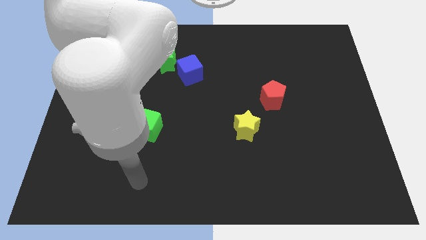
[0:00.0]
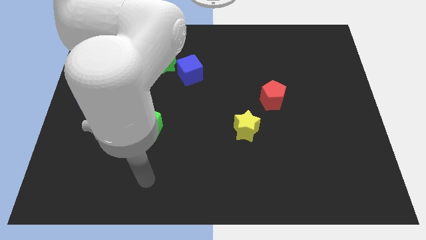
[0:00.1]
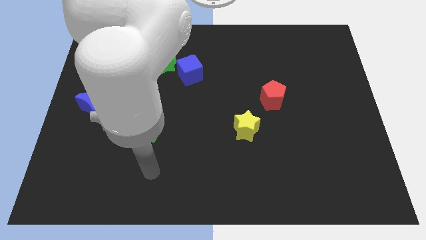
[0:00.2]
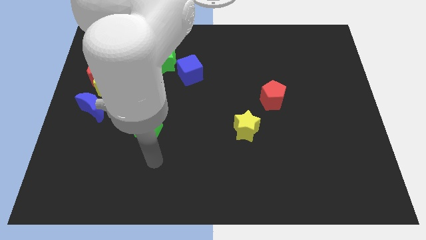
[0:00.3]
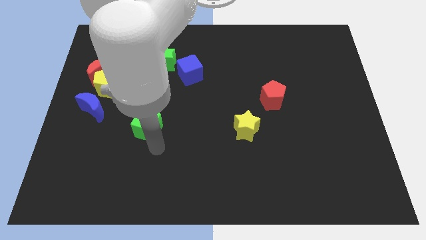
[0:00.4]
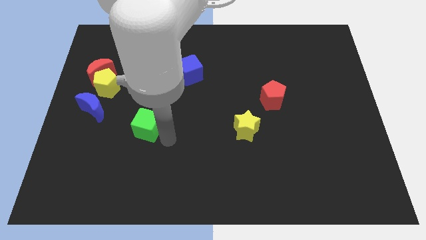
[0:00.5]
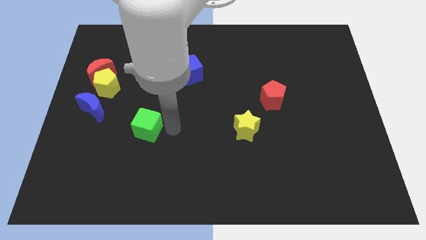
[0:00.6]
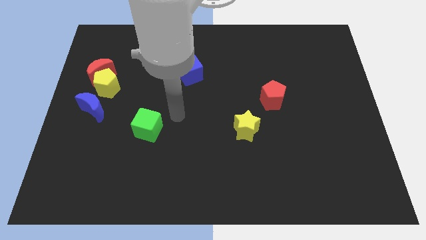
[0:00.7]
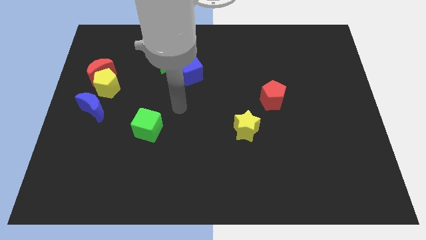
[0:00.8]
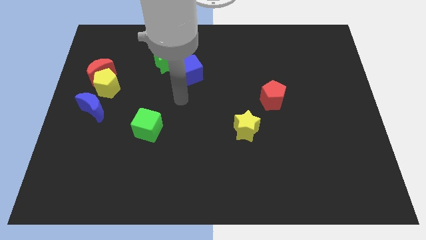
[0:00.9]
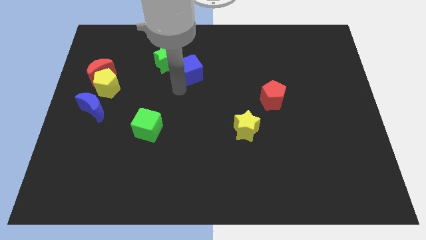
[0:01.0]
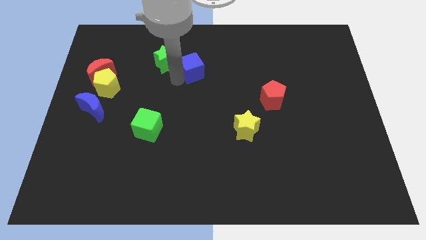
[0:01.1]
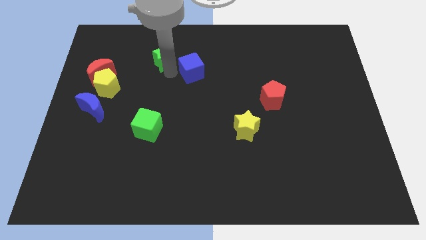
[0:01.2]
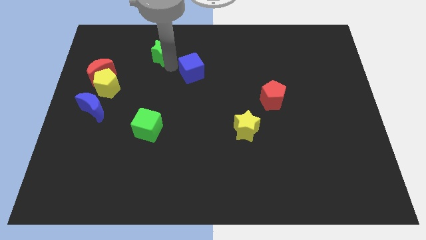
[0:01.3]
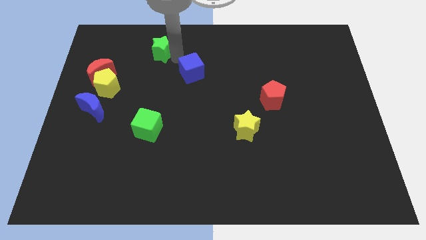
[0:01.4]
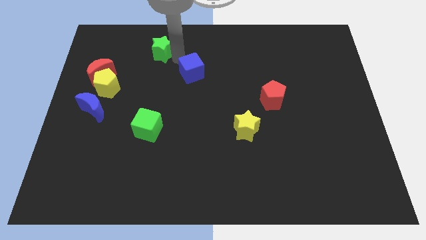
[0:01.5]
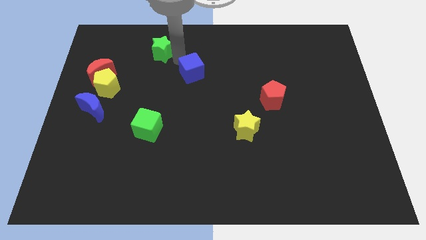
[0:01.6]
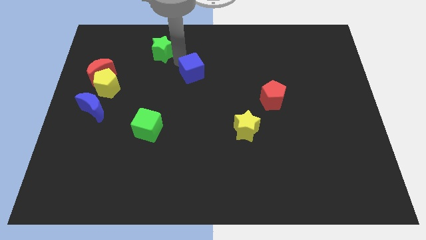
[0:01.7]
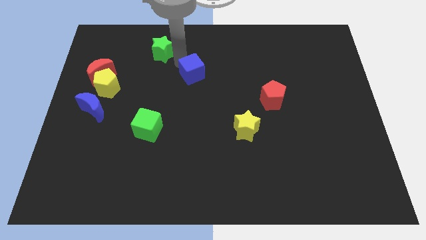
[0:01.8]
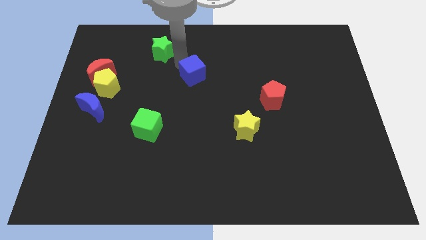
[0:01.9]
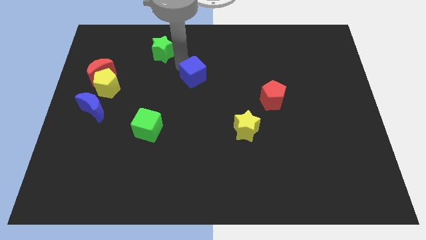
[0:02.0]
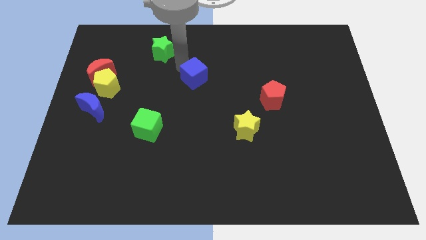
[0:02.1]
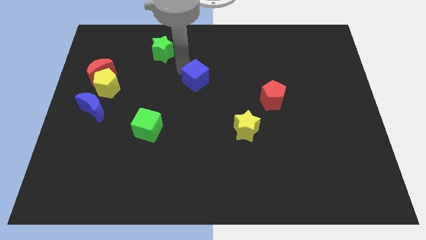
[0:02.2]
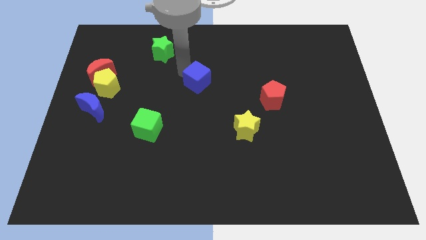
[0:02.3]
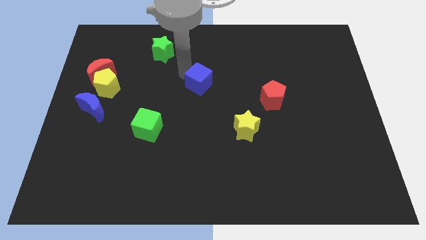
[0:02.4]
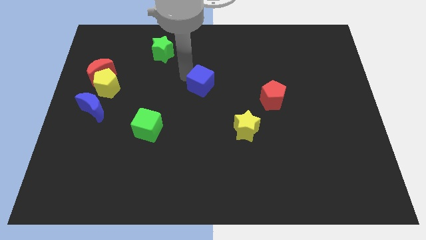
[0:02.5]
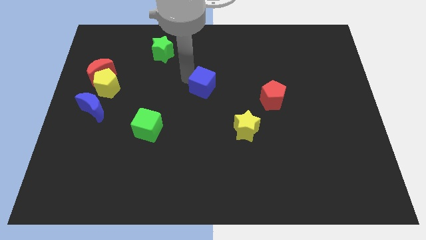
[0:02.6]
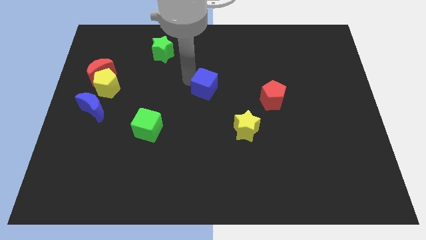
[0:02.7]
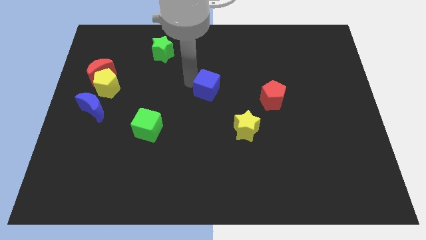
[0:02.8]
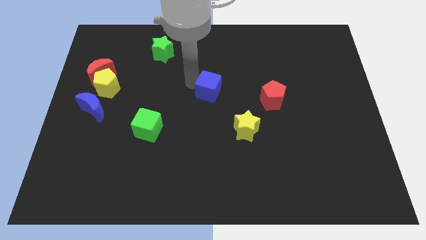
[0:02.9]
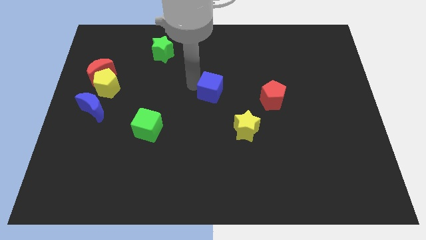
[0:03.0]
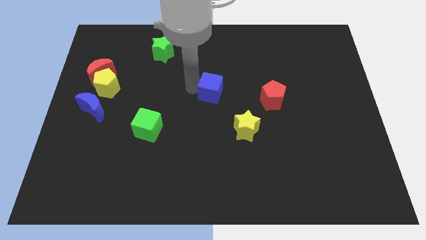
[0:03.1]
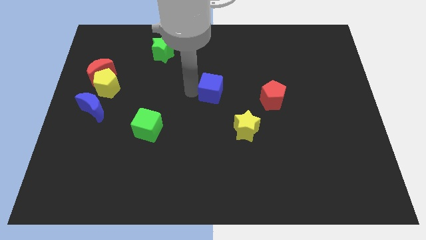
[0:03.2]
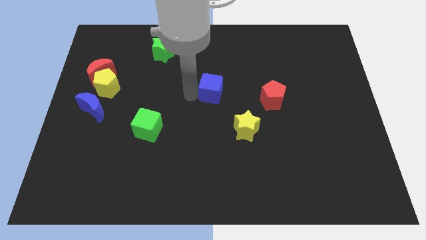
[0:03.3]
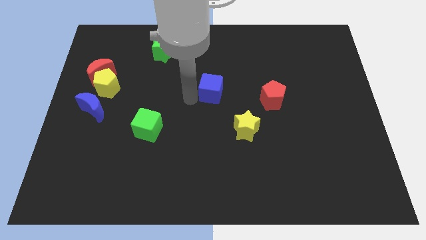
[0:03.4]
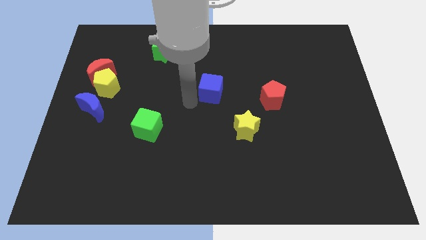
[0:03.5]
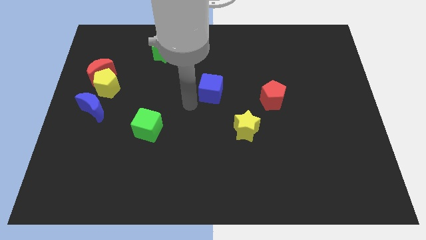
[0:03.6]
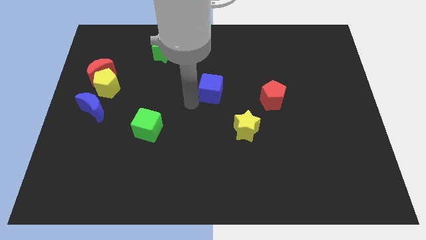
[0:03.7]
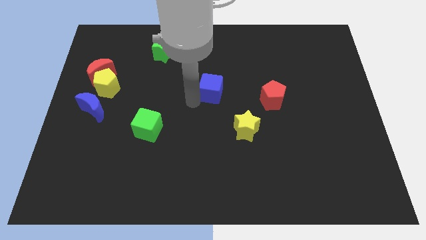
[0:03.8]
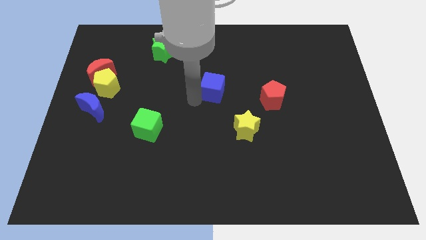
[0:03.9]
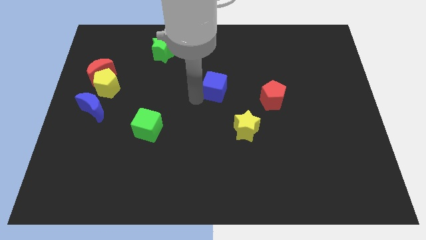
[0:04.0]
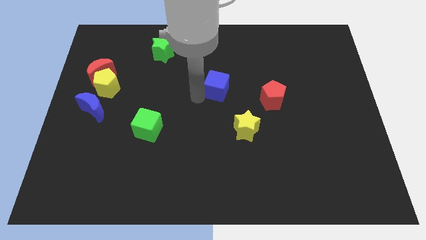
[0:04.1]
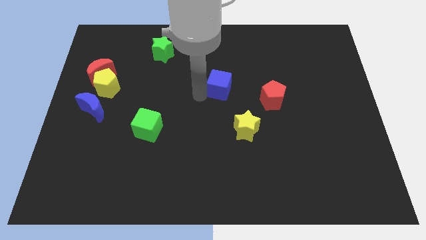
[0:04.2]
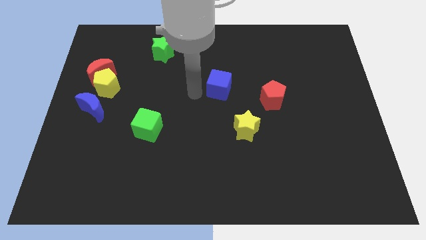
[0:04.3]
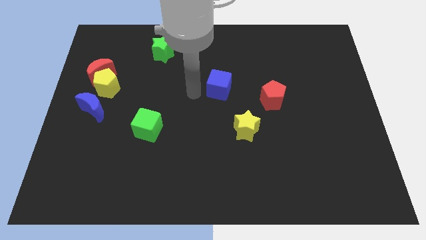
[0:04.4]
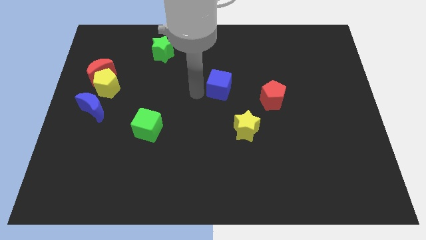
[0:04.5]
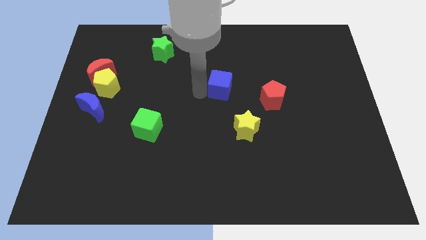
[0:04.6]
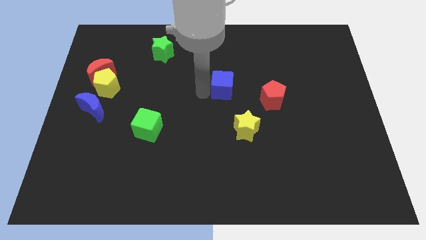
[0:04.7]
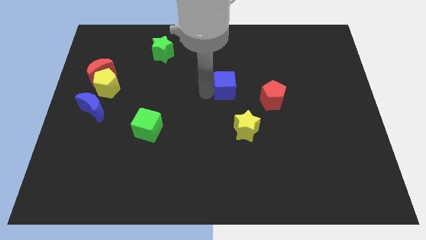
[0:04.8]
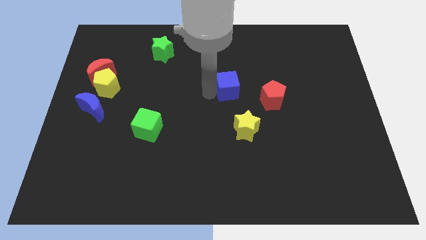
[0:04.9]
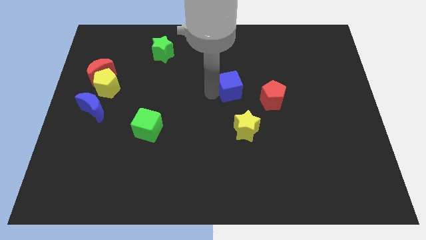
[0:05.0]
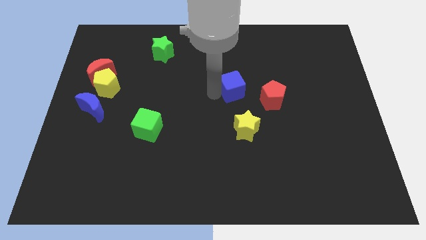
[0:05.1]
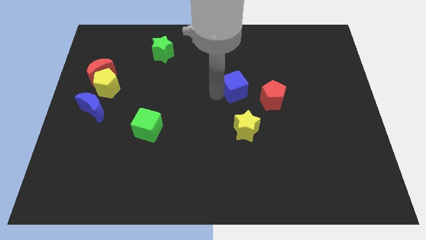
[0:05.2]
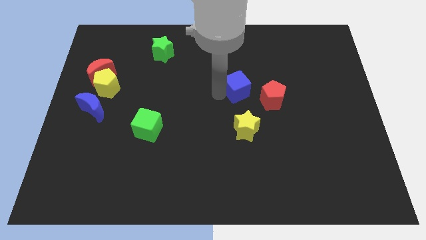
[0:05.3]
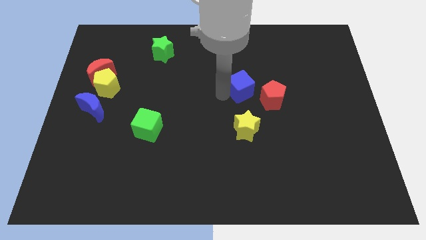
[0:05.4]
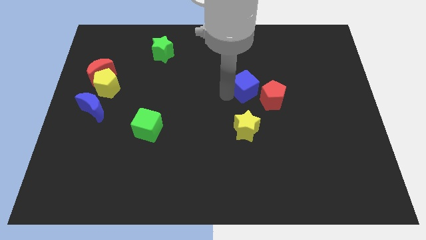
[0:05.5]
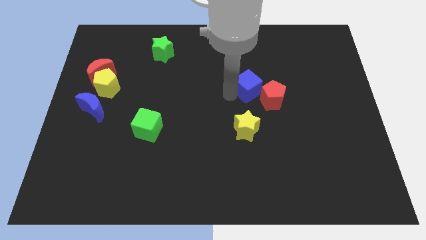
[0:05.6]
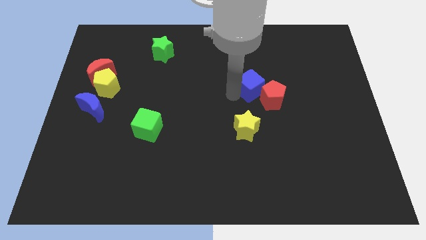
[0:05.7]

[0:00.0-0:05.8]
move the blue cube to the red pentagon
